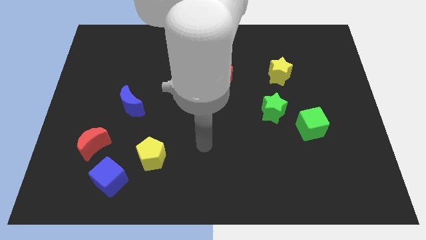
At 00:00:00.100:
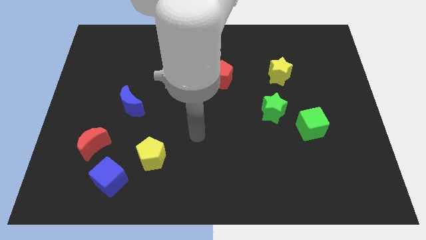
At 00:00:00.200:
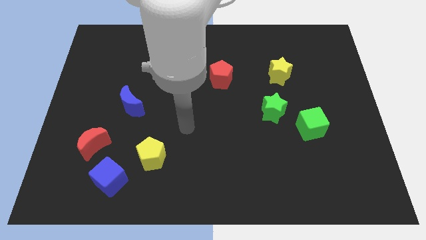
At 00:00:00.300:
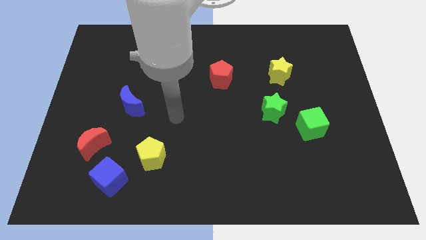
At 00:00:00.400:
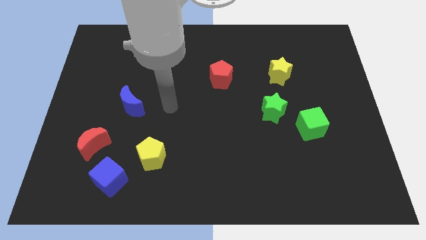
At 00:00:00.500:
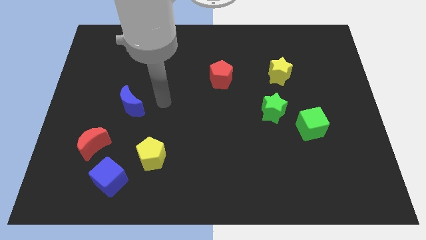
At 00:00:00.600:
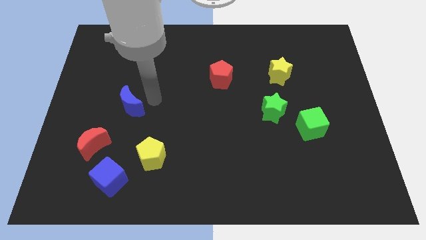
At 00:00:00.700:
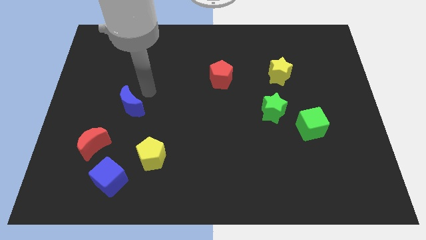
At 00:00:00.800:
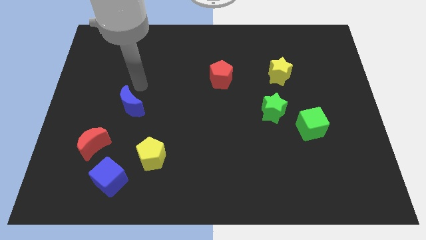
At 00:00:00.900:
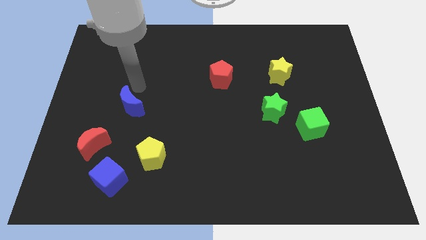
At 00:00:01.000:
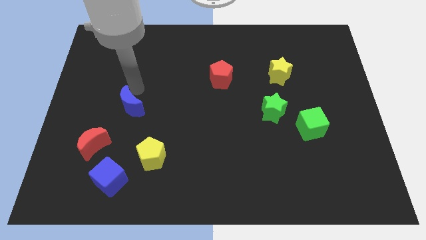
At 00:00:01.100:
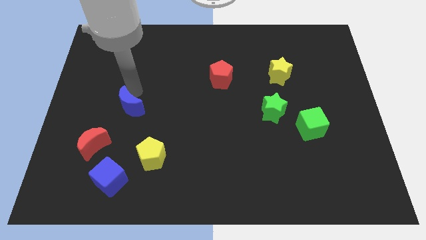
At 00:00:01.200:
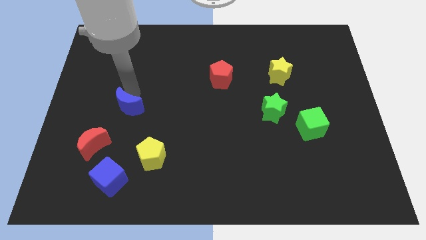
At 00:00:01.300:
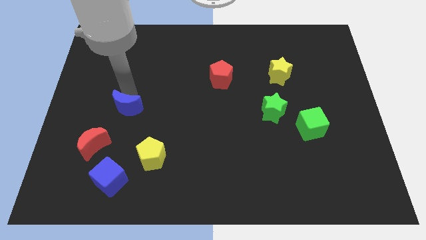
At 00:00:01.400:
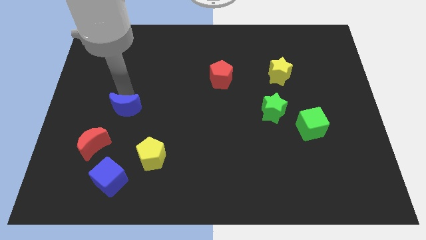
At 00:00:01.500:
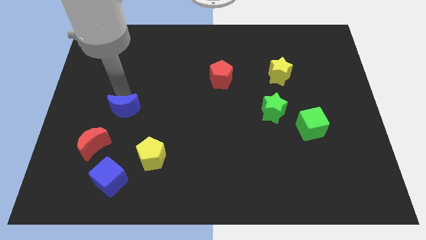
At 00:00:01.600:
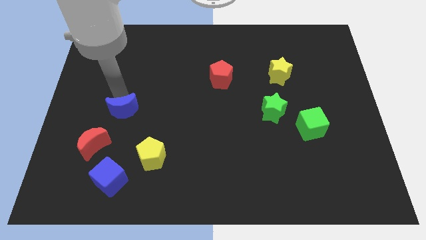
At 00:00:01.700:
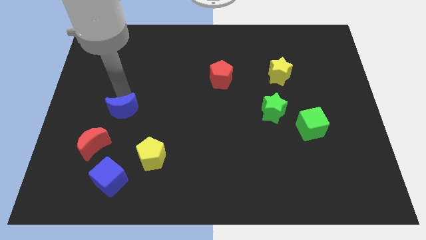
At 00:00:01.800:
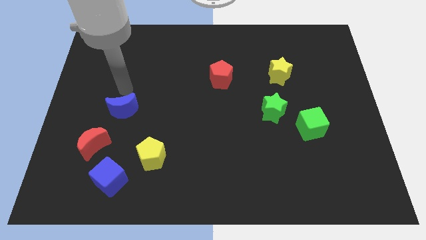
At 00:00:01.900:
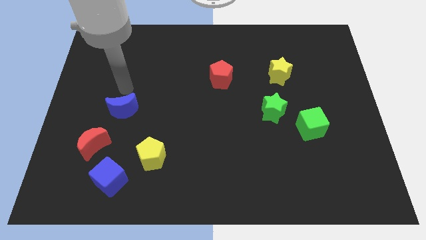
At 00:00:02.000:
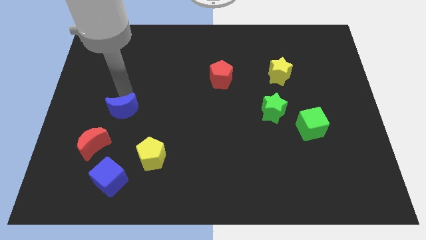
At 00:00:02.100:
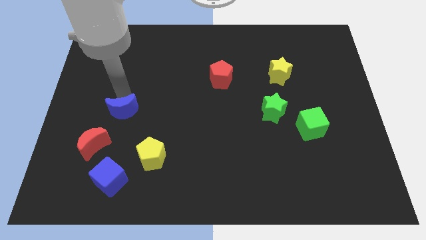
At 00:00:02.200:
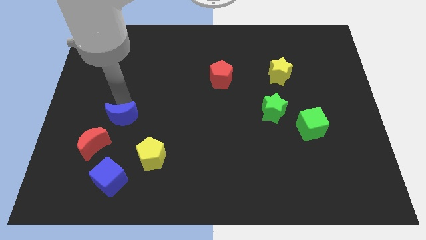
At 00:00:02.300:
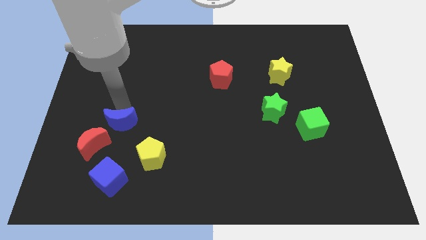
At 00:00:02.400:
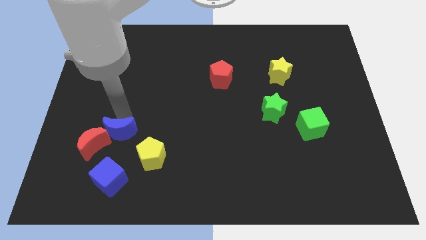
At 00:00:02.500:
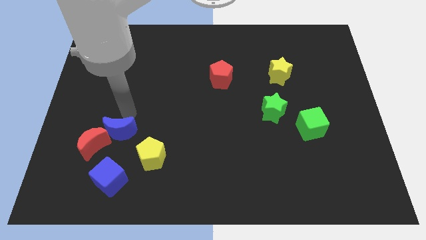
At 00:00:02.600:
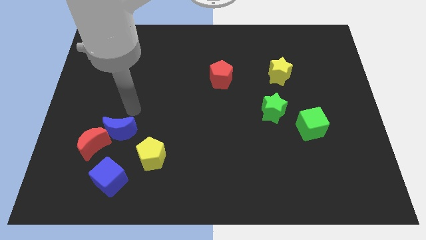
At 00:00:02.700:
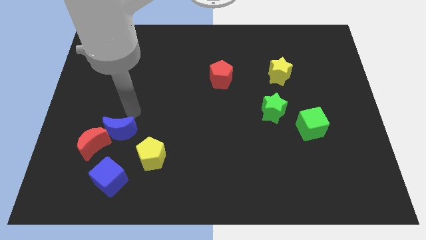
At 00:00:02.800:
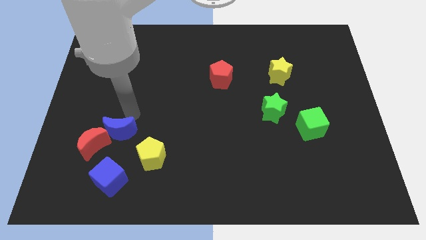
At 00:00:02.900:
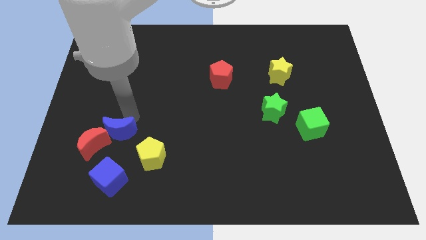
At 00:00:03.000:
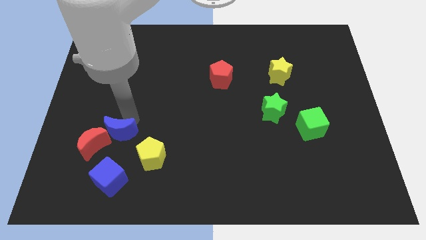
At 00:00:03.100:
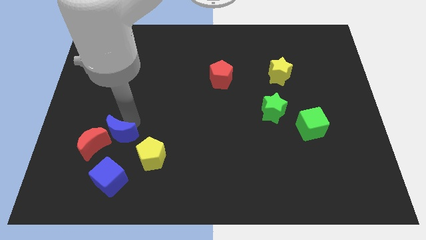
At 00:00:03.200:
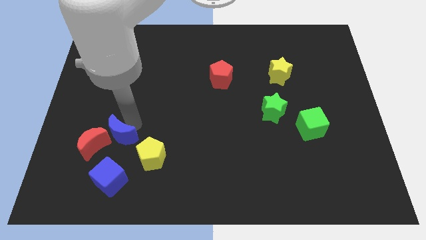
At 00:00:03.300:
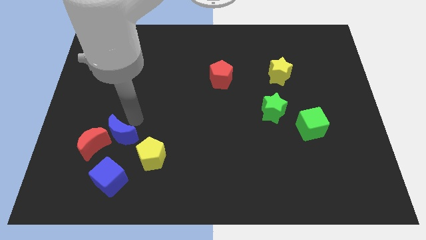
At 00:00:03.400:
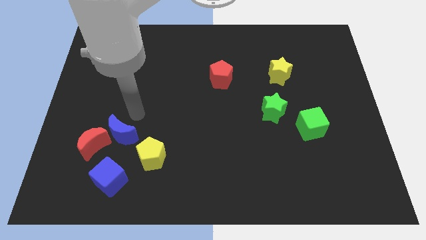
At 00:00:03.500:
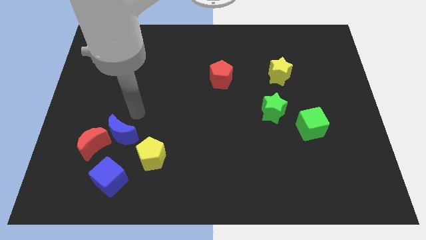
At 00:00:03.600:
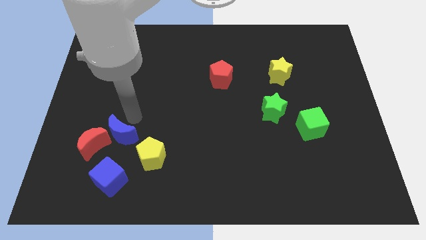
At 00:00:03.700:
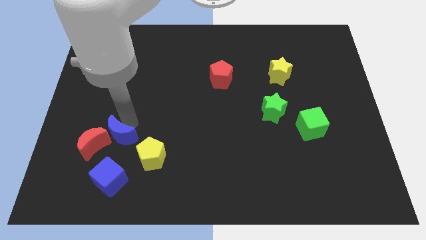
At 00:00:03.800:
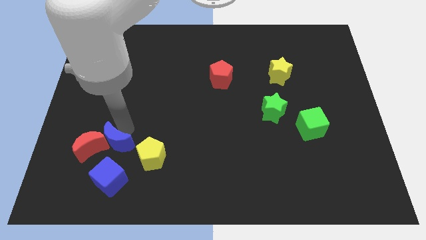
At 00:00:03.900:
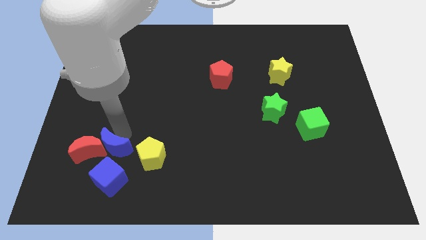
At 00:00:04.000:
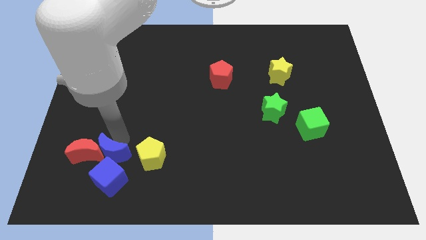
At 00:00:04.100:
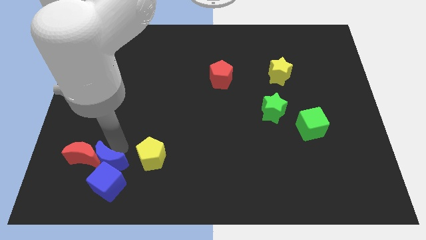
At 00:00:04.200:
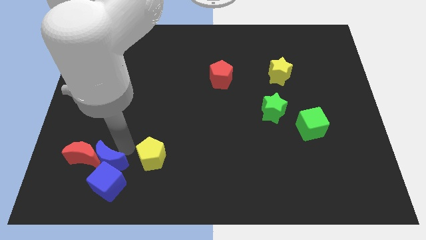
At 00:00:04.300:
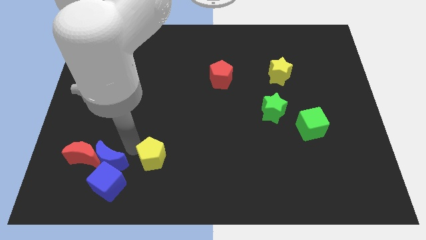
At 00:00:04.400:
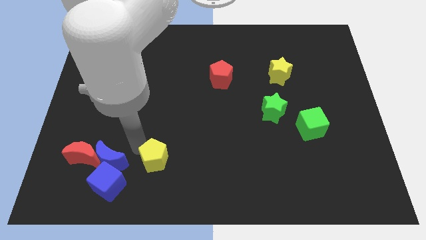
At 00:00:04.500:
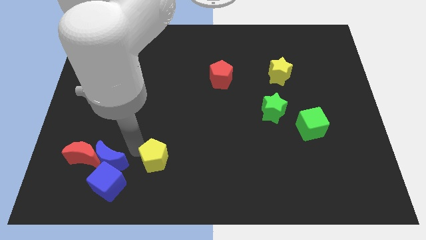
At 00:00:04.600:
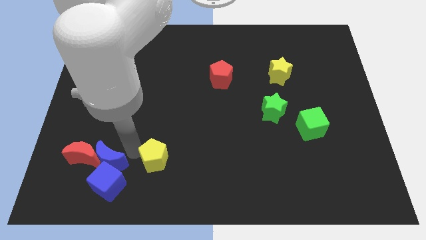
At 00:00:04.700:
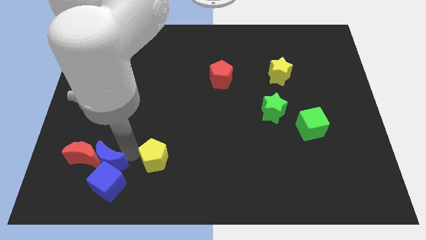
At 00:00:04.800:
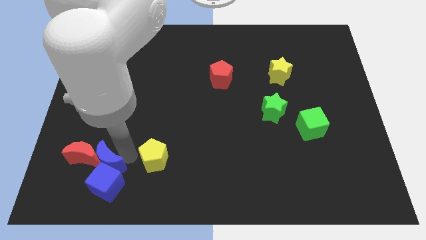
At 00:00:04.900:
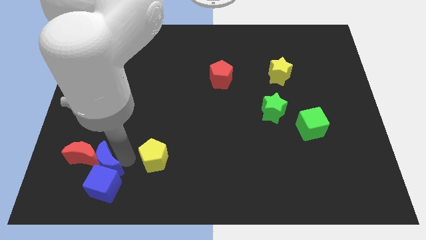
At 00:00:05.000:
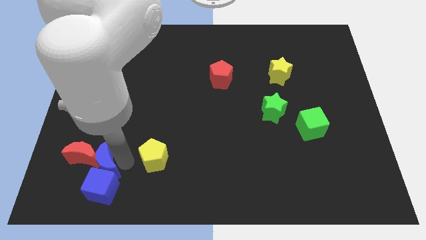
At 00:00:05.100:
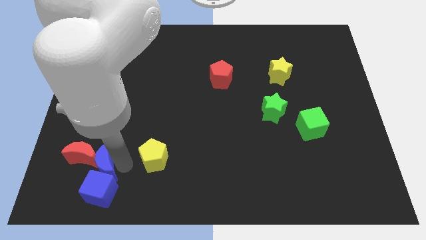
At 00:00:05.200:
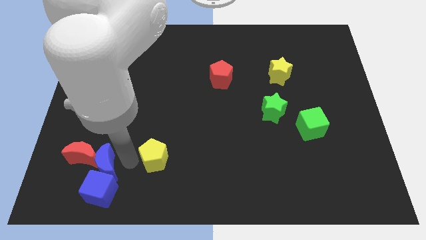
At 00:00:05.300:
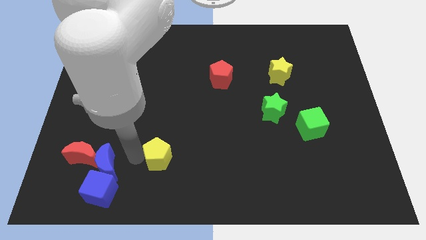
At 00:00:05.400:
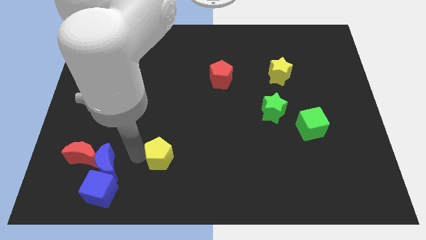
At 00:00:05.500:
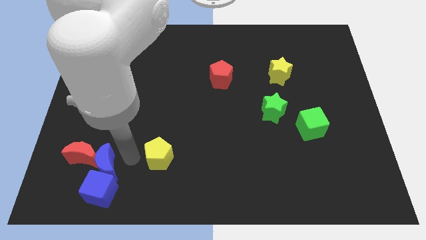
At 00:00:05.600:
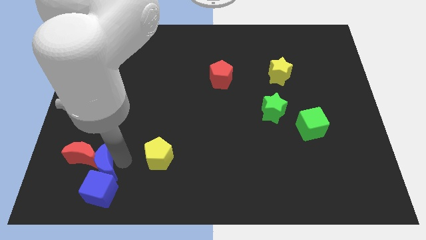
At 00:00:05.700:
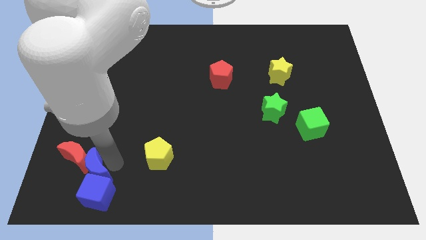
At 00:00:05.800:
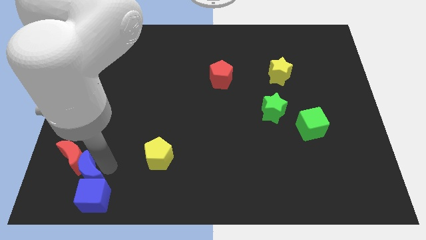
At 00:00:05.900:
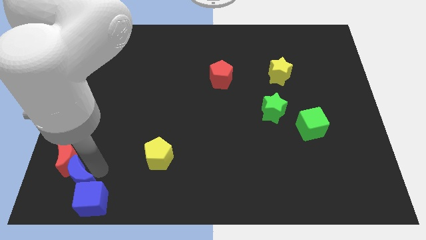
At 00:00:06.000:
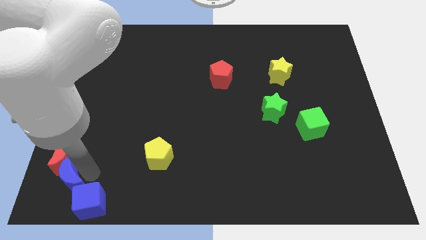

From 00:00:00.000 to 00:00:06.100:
move the blue moon to the bottom left

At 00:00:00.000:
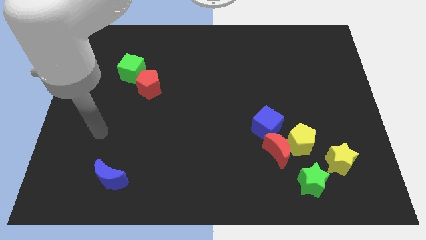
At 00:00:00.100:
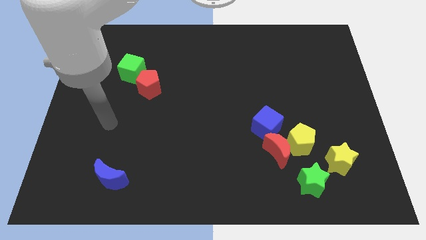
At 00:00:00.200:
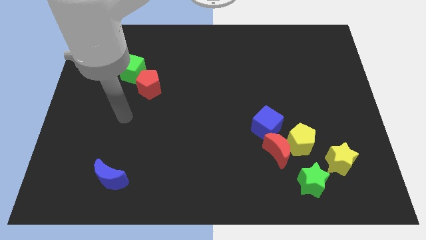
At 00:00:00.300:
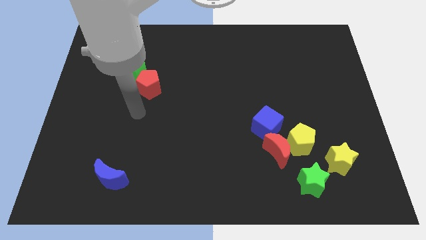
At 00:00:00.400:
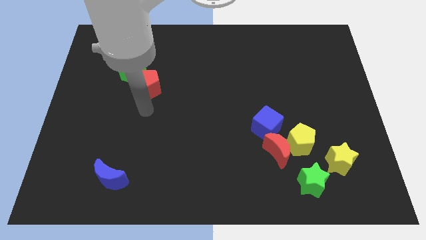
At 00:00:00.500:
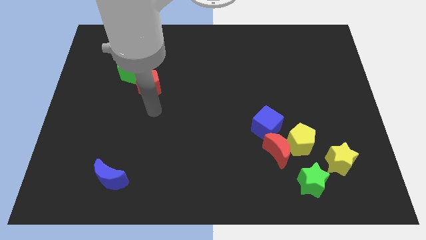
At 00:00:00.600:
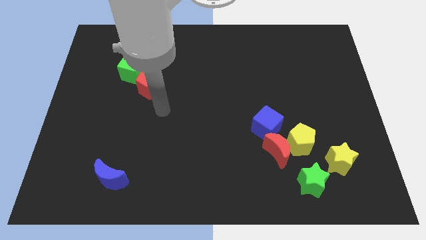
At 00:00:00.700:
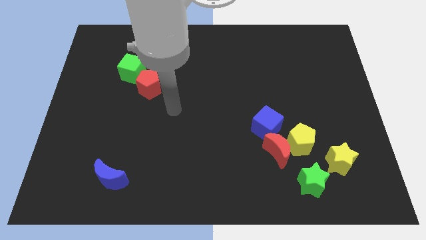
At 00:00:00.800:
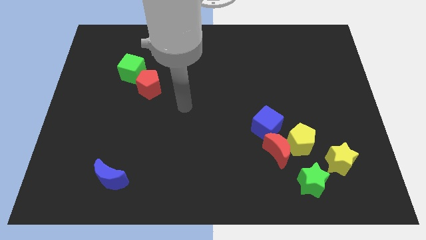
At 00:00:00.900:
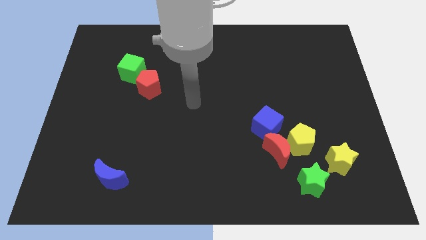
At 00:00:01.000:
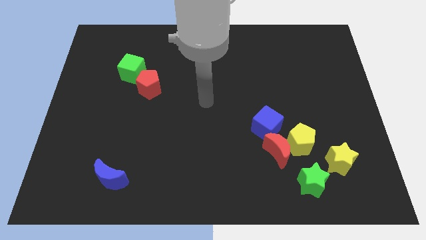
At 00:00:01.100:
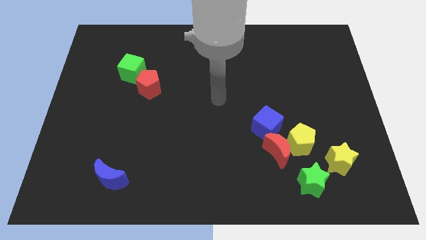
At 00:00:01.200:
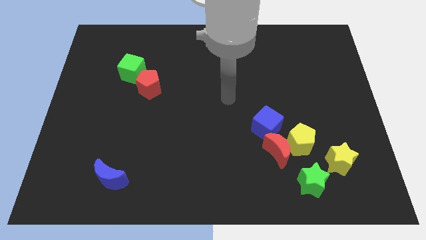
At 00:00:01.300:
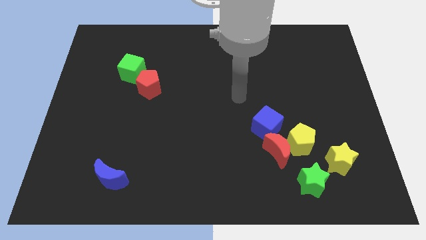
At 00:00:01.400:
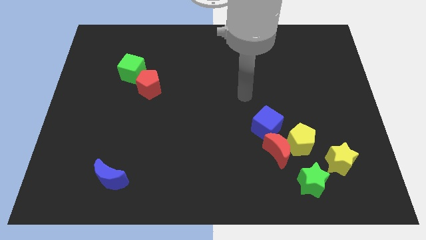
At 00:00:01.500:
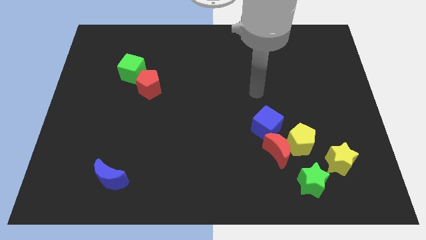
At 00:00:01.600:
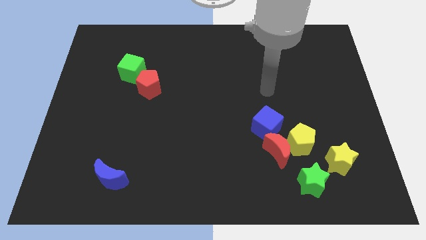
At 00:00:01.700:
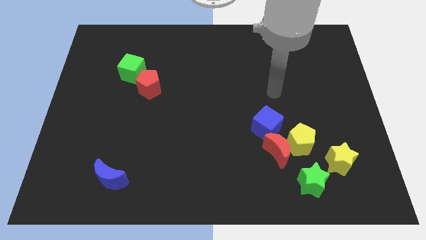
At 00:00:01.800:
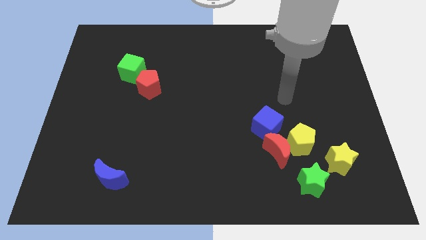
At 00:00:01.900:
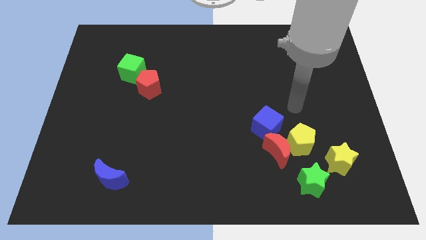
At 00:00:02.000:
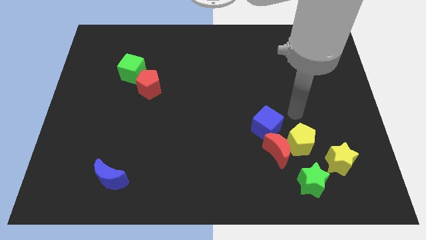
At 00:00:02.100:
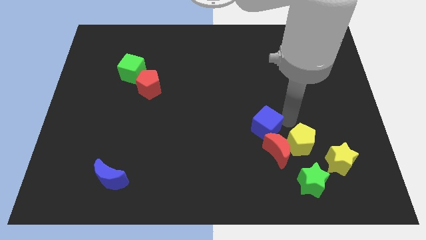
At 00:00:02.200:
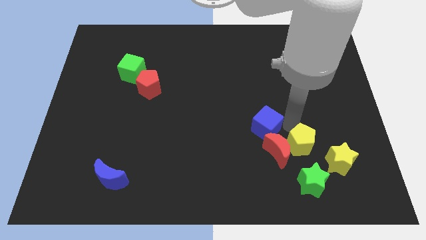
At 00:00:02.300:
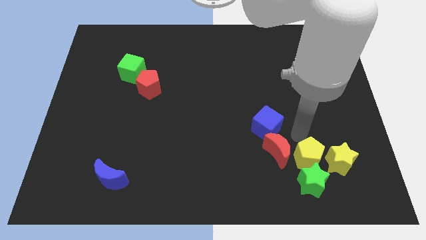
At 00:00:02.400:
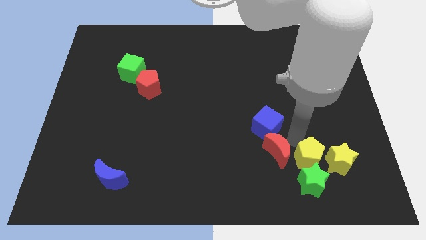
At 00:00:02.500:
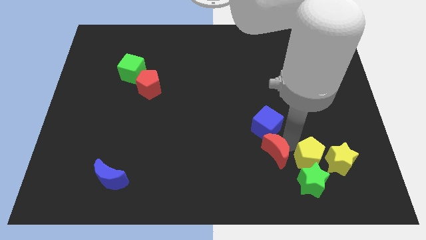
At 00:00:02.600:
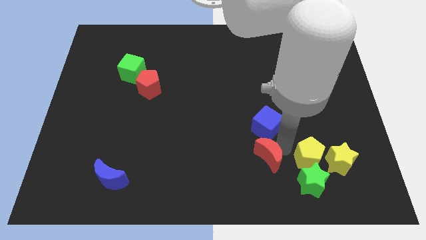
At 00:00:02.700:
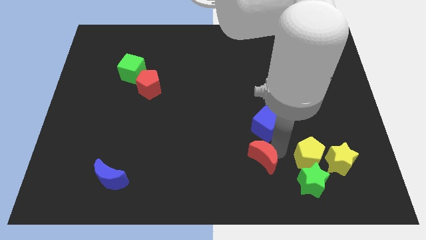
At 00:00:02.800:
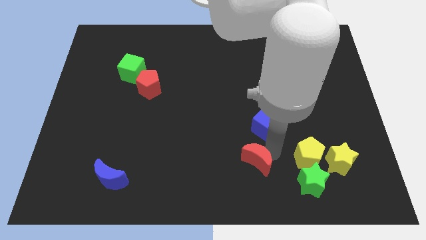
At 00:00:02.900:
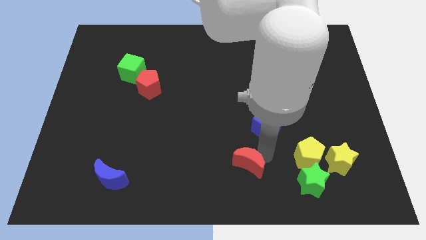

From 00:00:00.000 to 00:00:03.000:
slide the red moon to the bottom side
